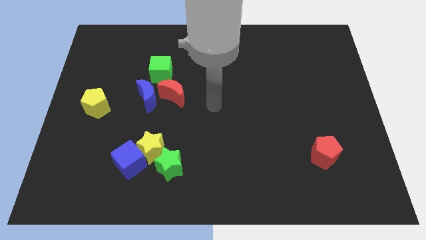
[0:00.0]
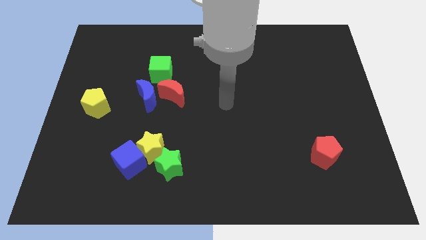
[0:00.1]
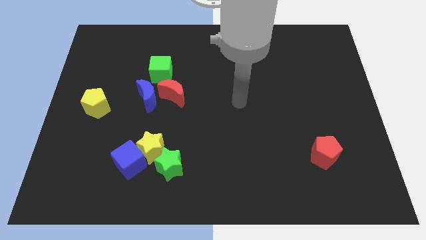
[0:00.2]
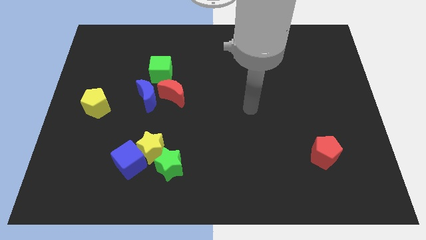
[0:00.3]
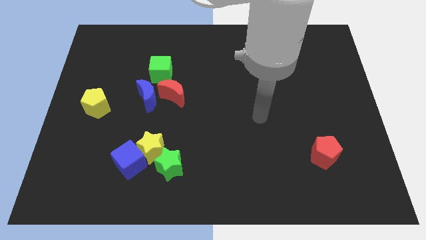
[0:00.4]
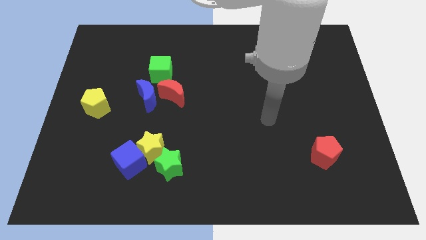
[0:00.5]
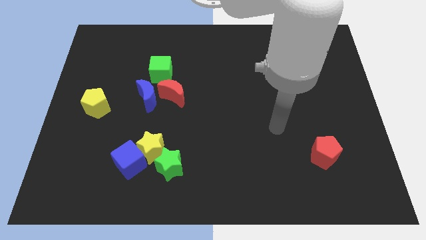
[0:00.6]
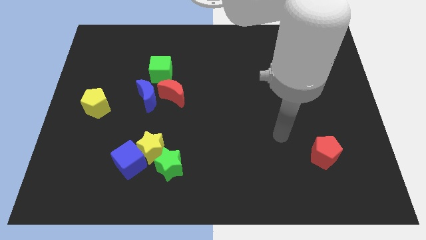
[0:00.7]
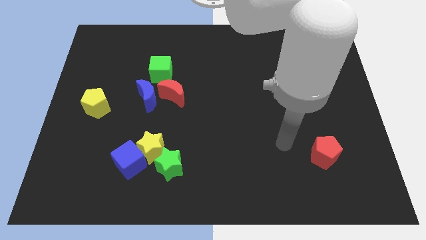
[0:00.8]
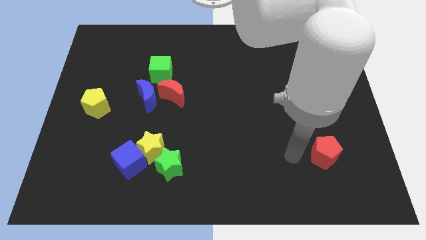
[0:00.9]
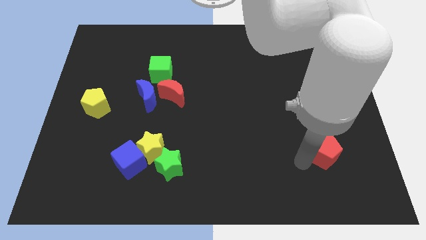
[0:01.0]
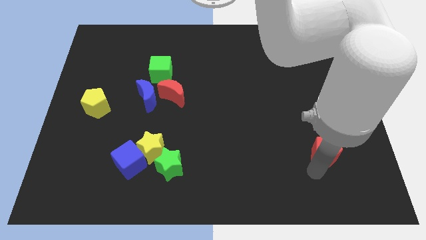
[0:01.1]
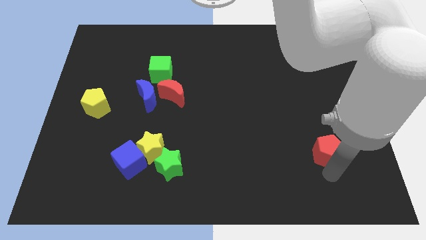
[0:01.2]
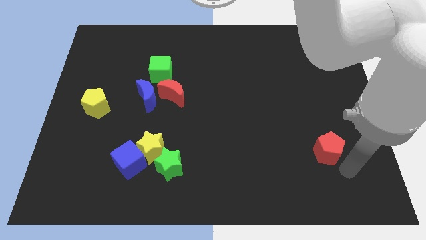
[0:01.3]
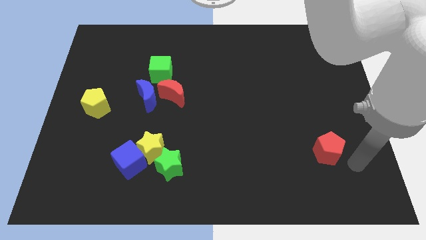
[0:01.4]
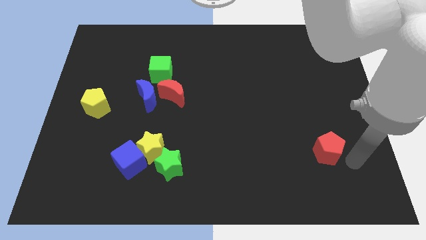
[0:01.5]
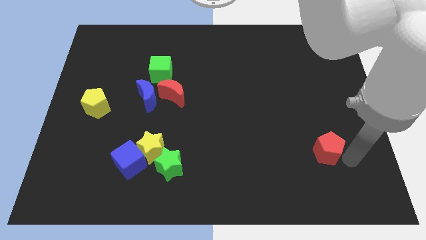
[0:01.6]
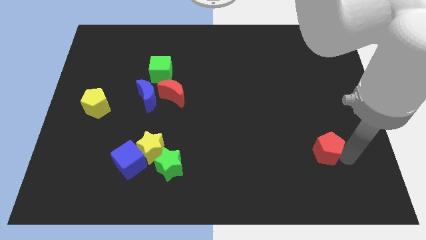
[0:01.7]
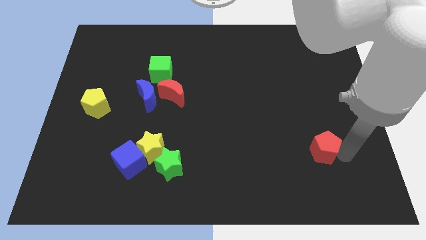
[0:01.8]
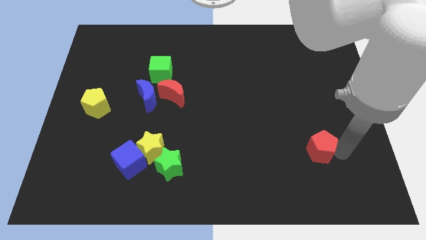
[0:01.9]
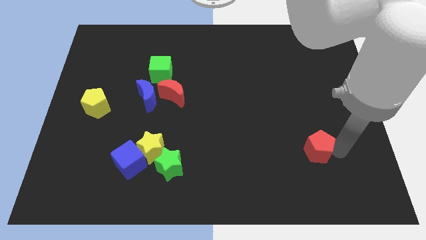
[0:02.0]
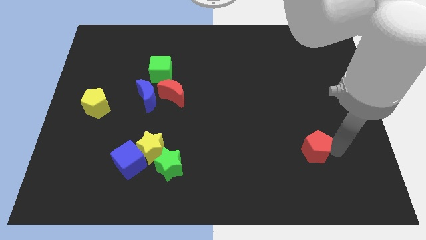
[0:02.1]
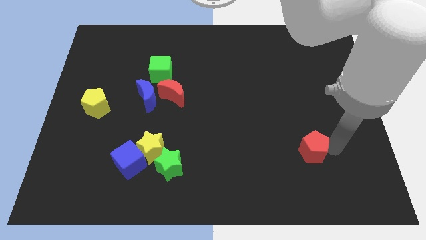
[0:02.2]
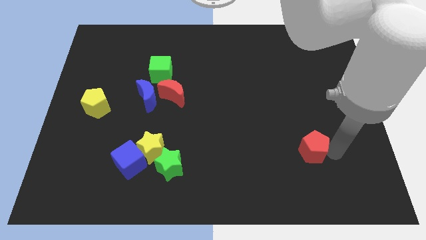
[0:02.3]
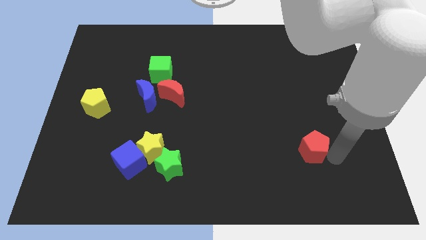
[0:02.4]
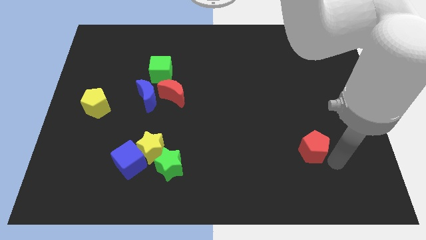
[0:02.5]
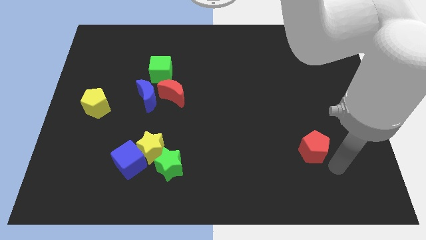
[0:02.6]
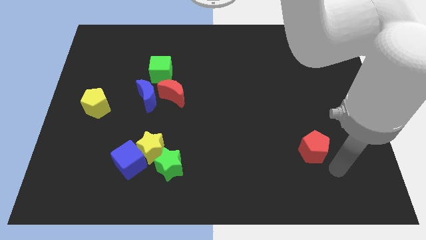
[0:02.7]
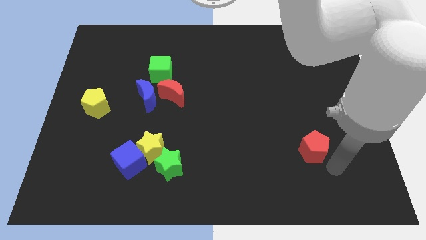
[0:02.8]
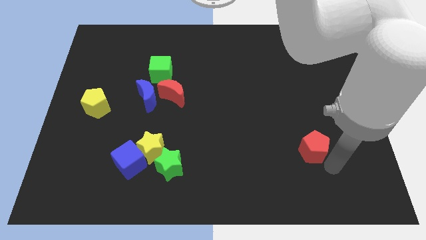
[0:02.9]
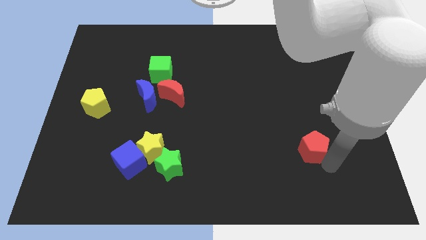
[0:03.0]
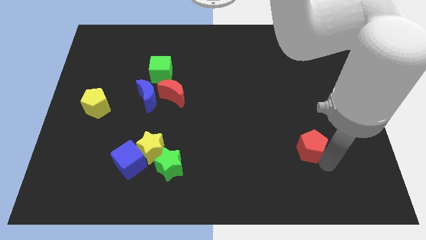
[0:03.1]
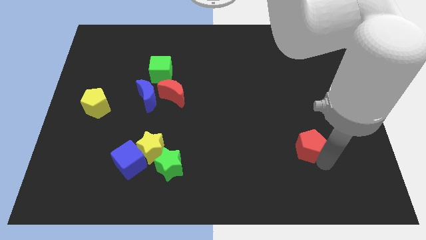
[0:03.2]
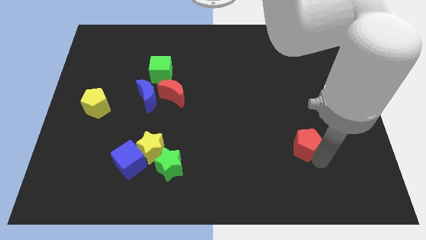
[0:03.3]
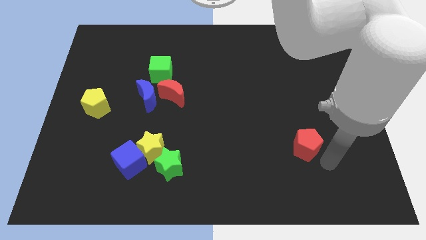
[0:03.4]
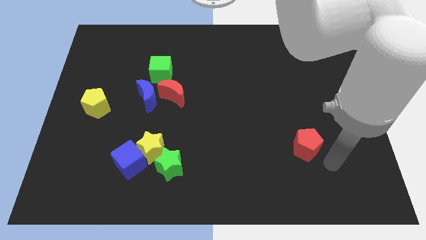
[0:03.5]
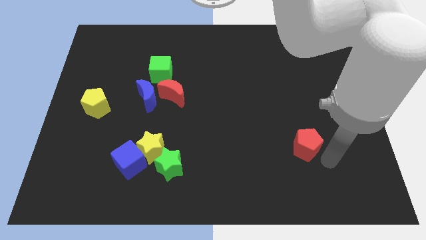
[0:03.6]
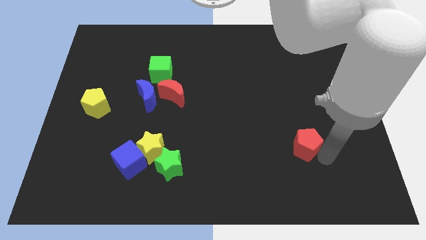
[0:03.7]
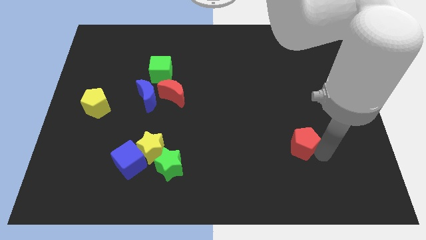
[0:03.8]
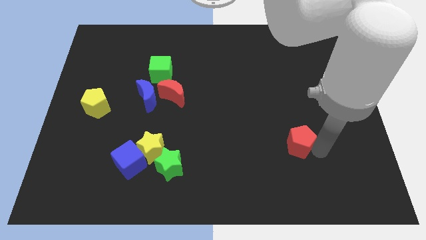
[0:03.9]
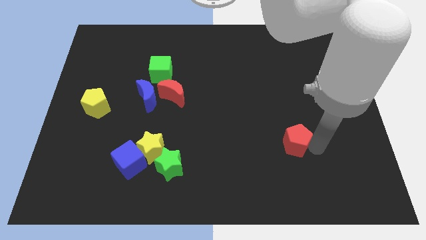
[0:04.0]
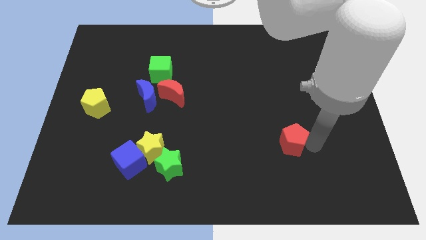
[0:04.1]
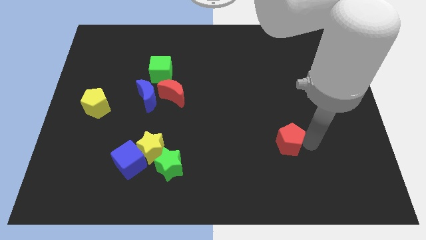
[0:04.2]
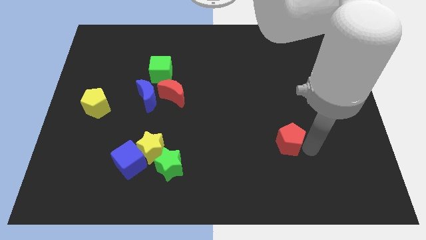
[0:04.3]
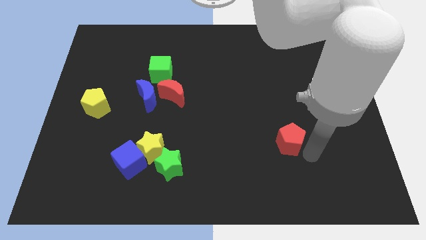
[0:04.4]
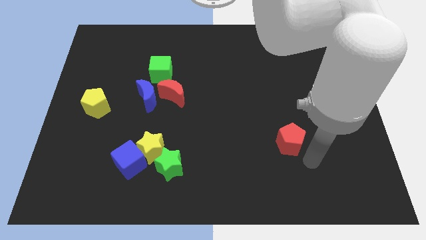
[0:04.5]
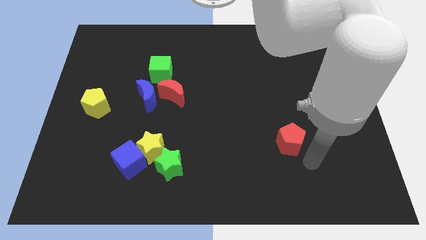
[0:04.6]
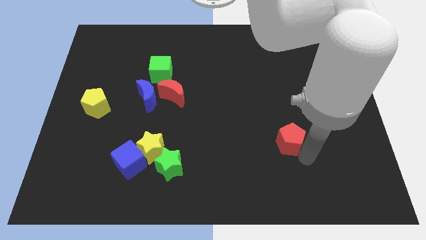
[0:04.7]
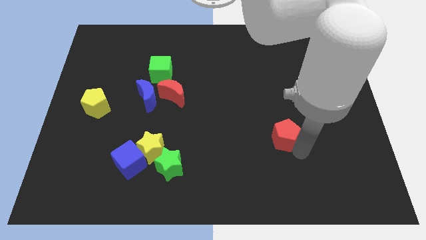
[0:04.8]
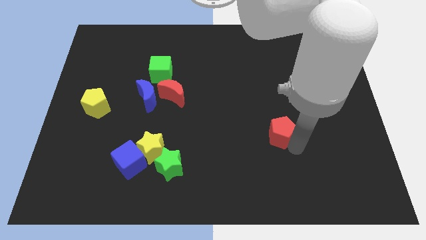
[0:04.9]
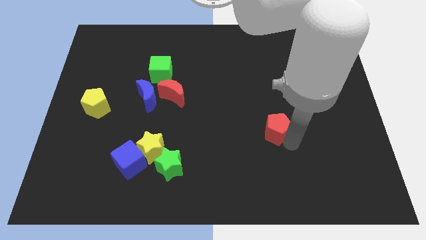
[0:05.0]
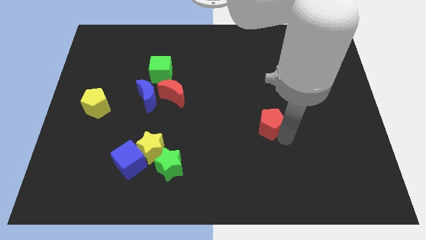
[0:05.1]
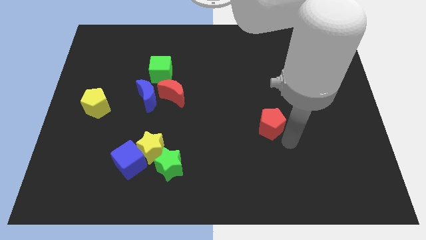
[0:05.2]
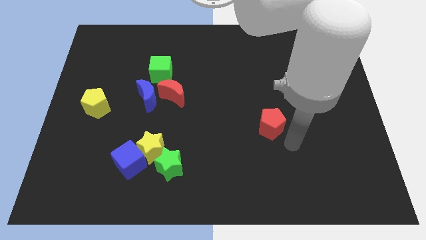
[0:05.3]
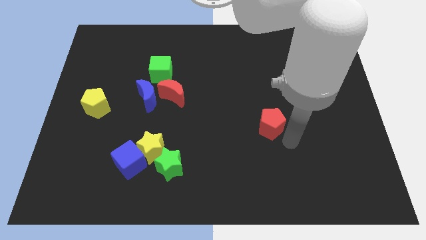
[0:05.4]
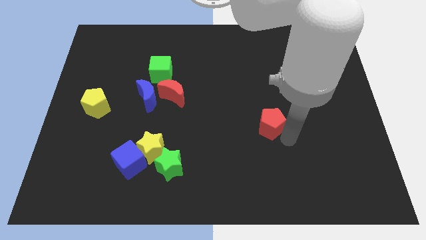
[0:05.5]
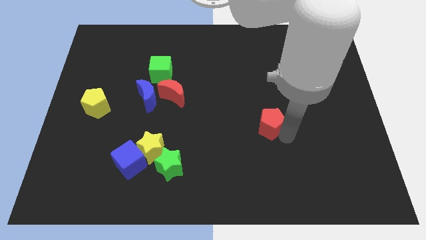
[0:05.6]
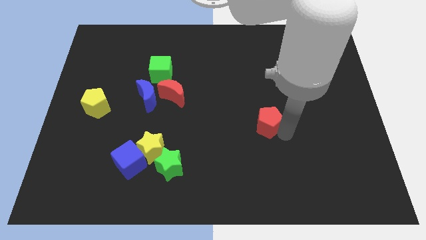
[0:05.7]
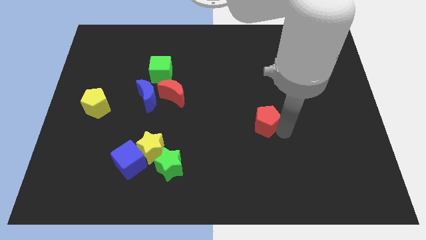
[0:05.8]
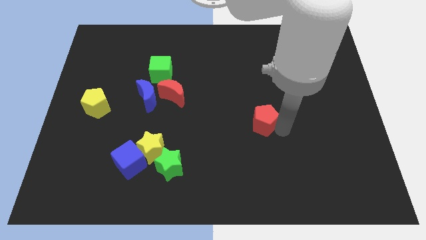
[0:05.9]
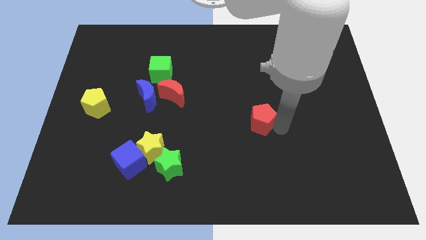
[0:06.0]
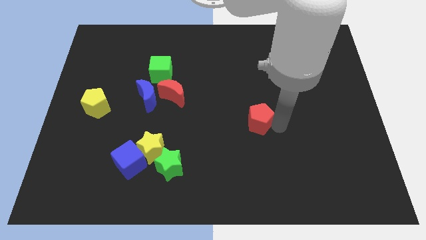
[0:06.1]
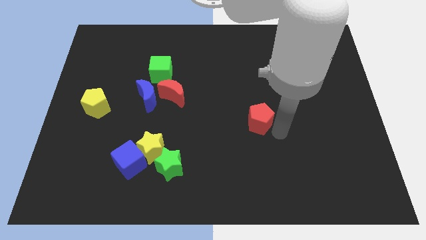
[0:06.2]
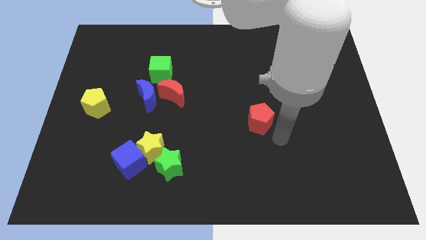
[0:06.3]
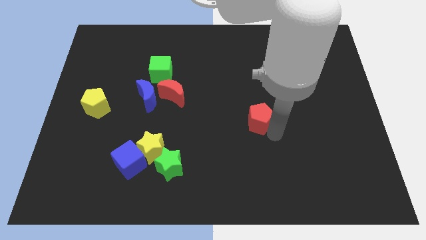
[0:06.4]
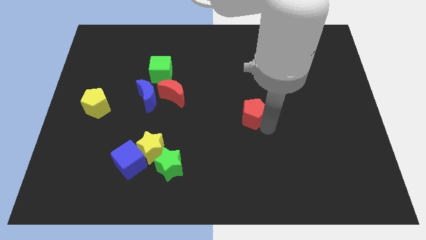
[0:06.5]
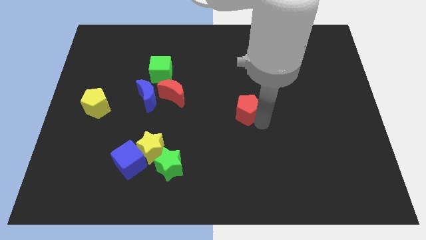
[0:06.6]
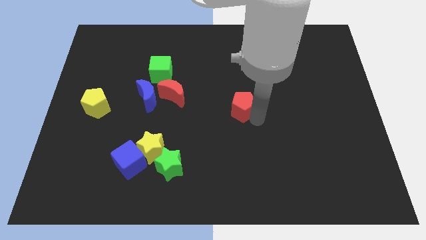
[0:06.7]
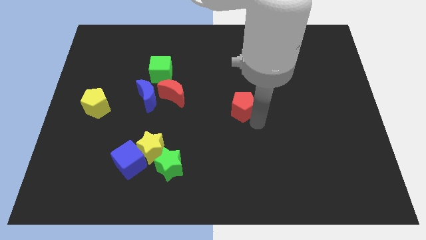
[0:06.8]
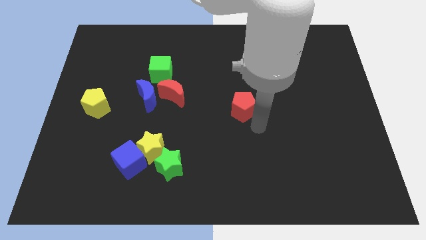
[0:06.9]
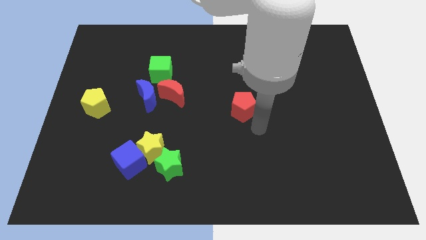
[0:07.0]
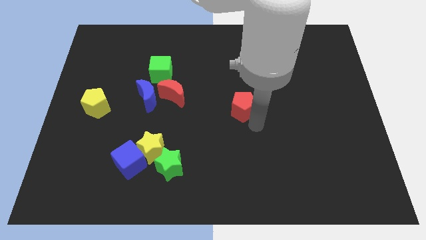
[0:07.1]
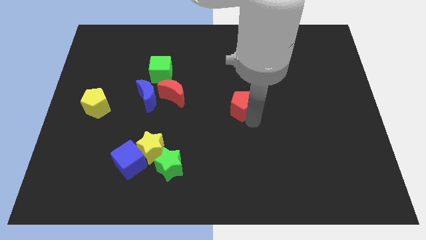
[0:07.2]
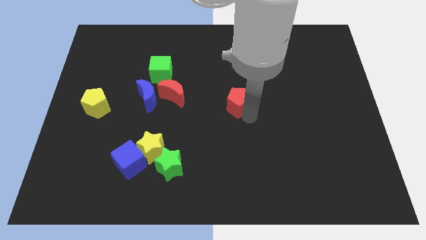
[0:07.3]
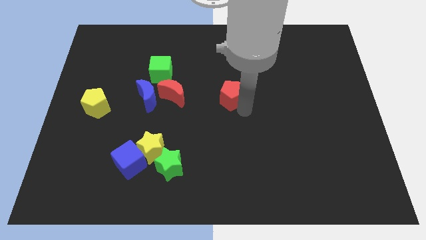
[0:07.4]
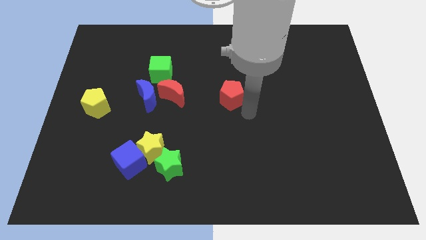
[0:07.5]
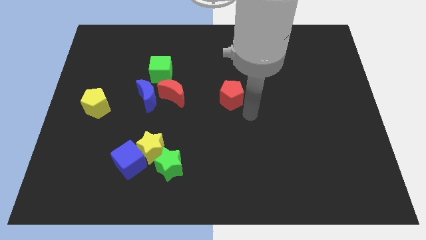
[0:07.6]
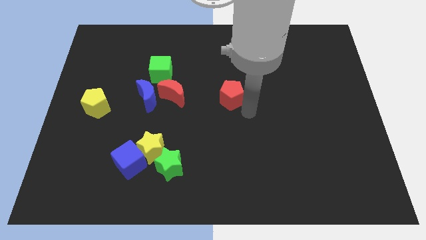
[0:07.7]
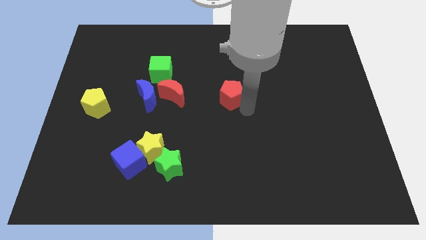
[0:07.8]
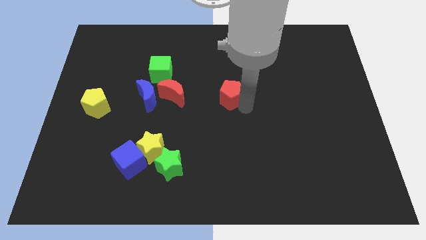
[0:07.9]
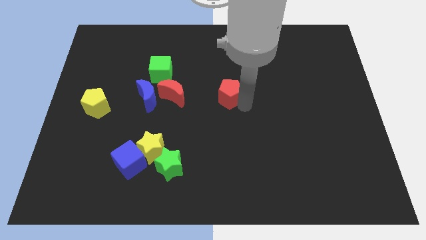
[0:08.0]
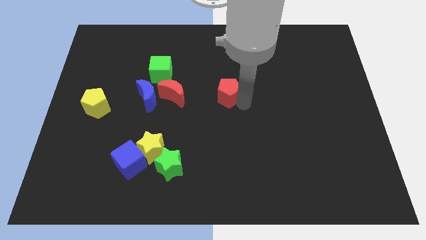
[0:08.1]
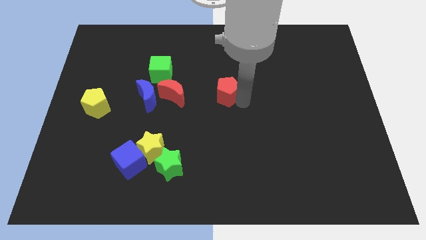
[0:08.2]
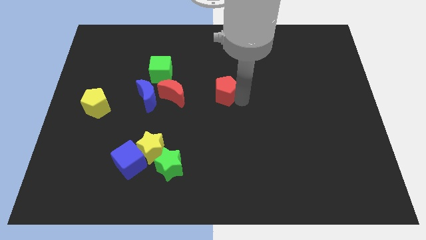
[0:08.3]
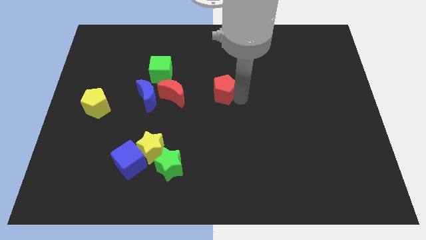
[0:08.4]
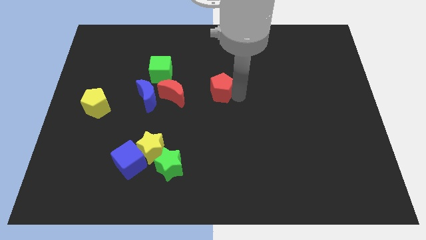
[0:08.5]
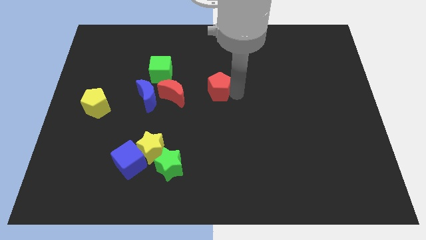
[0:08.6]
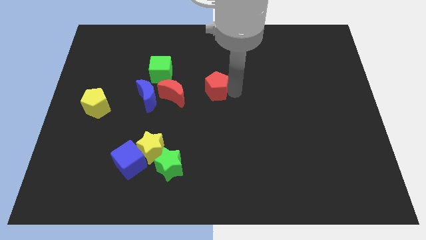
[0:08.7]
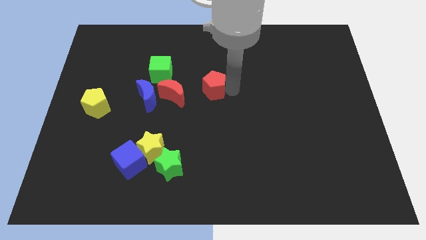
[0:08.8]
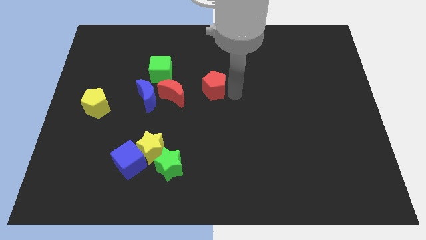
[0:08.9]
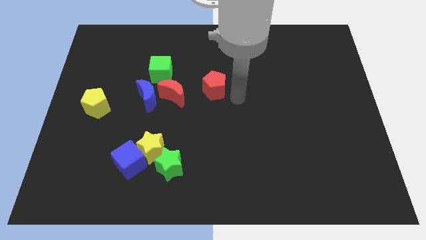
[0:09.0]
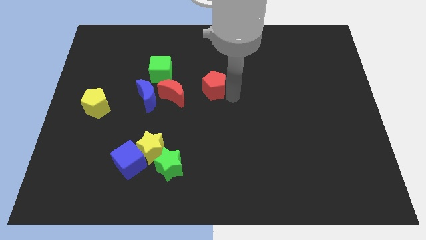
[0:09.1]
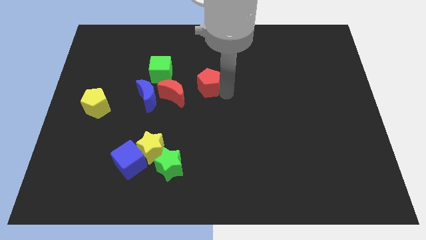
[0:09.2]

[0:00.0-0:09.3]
put the red pentagon to the top right side of the red moon
